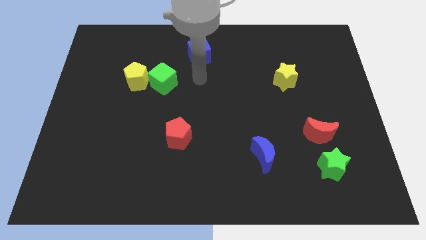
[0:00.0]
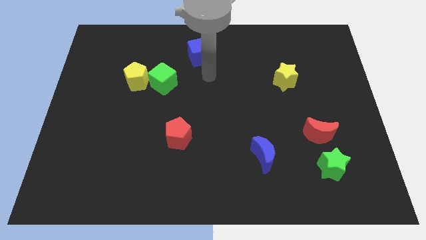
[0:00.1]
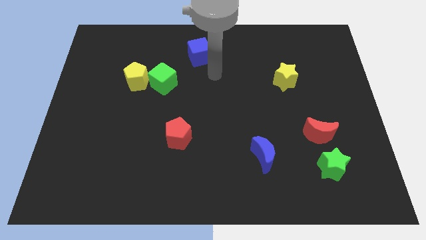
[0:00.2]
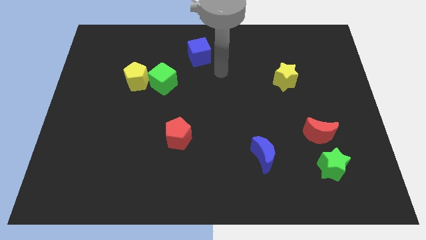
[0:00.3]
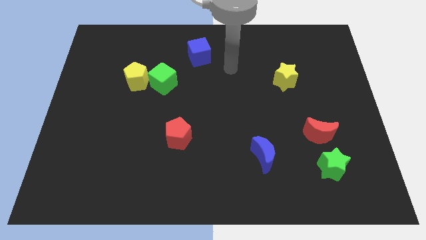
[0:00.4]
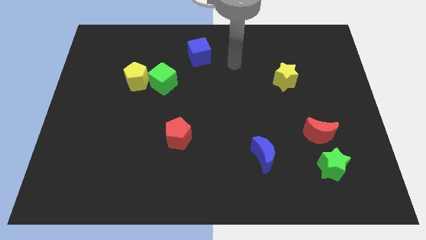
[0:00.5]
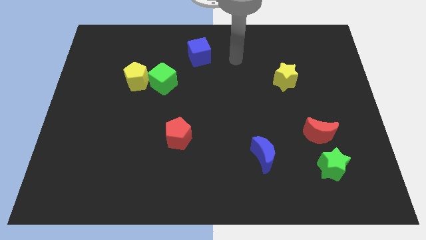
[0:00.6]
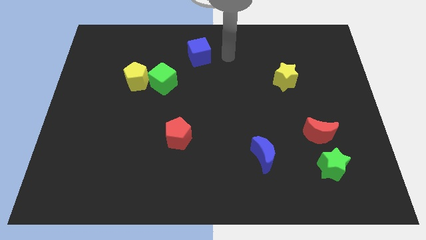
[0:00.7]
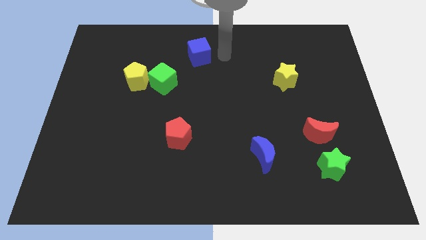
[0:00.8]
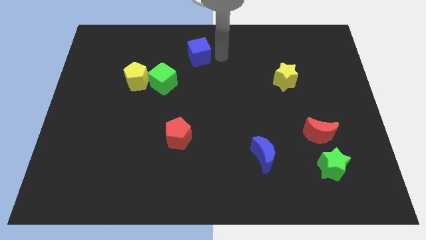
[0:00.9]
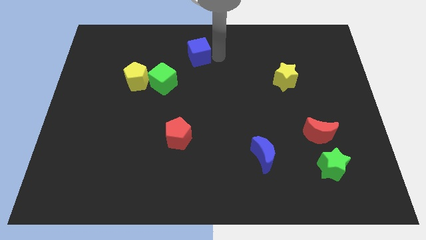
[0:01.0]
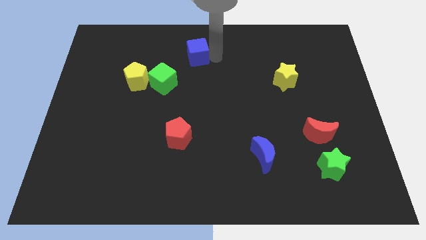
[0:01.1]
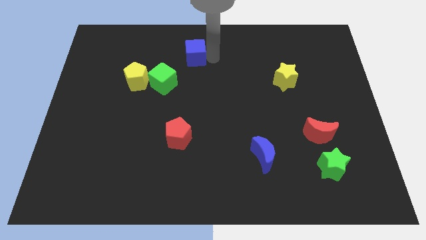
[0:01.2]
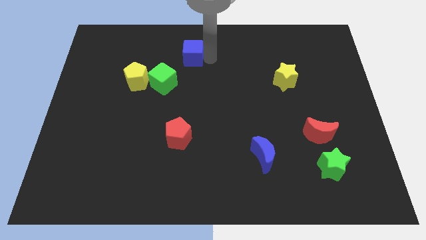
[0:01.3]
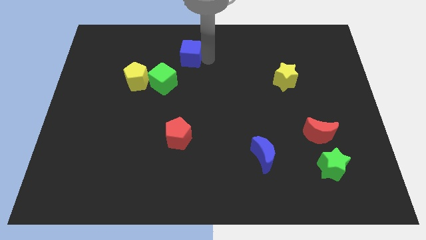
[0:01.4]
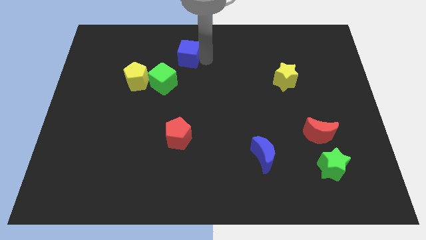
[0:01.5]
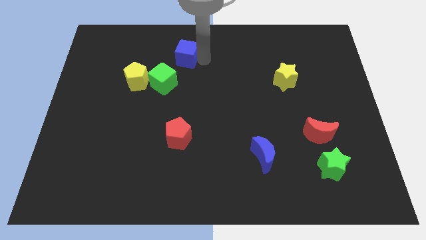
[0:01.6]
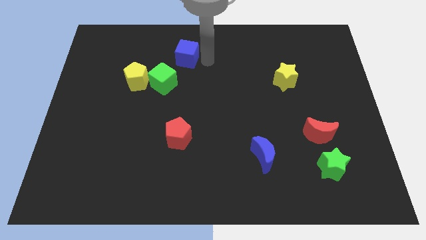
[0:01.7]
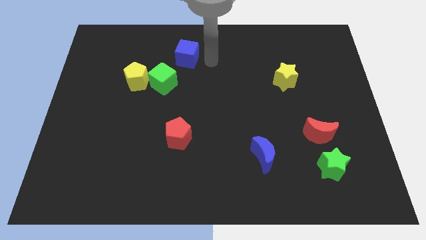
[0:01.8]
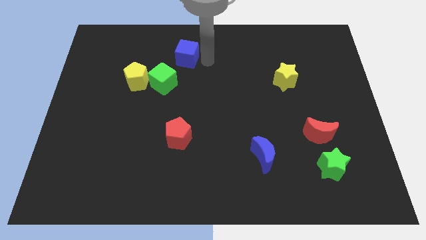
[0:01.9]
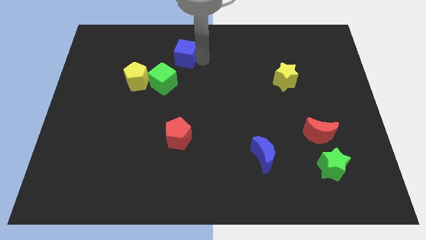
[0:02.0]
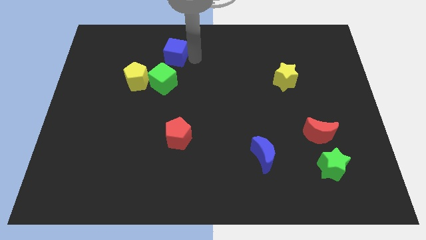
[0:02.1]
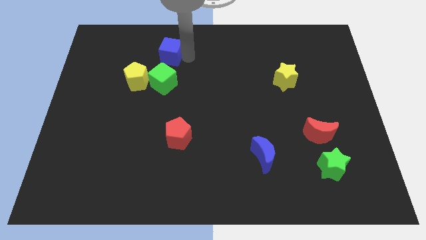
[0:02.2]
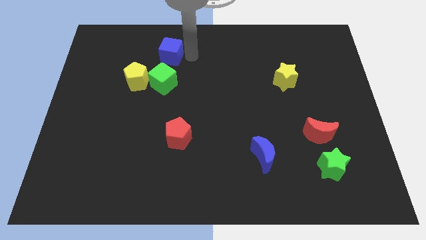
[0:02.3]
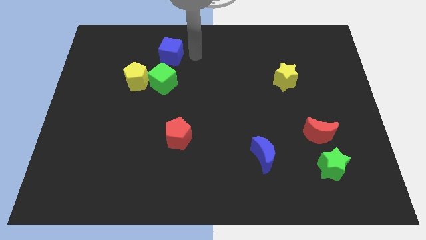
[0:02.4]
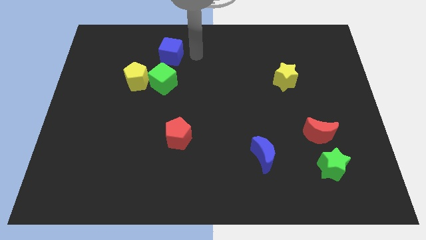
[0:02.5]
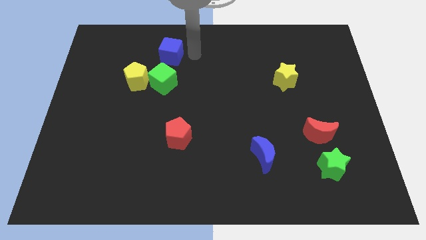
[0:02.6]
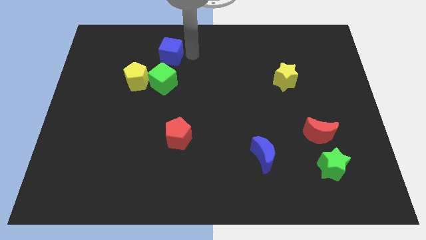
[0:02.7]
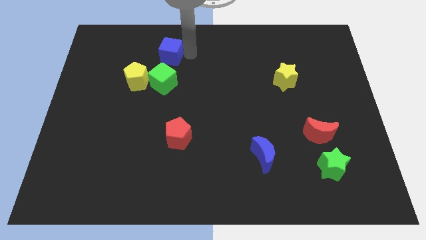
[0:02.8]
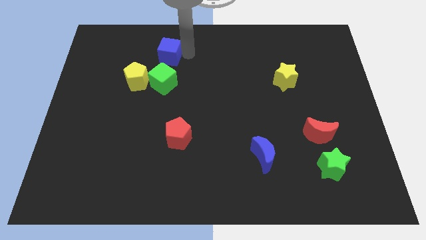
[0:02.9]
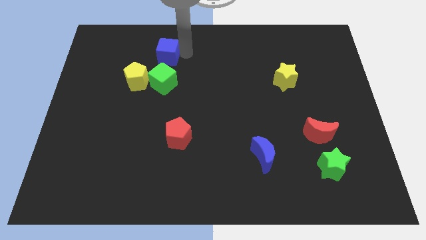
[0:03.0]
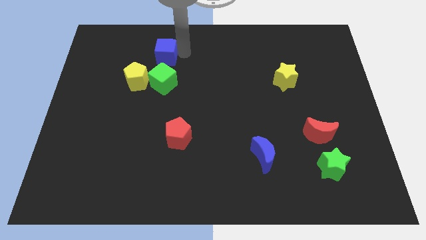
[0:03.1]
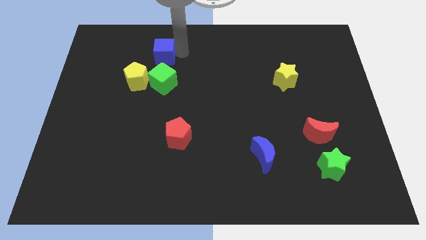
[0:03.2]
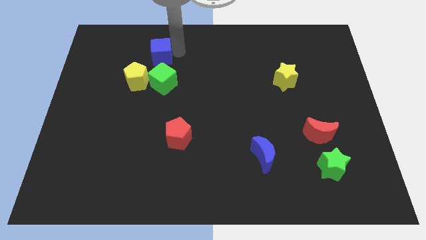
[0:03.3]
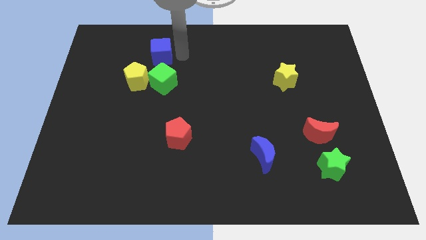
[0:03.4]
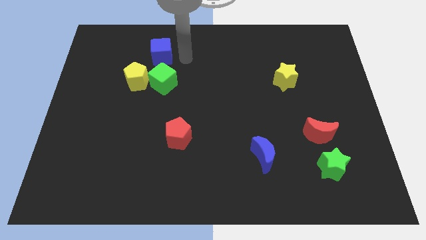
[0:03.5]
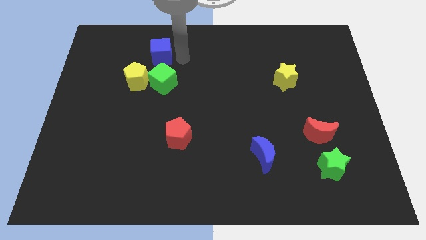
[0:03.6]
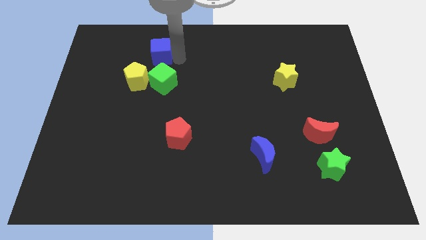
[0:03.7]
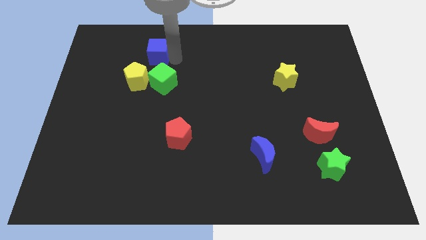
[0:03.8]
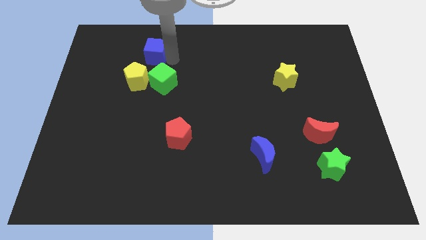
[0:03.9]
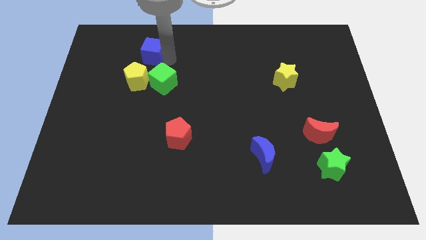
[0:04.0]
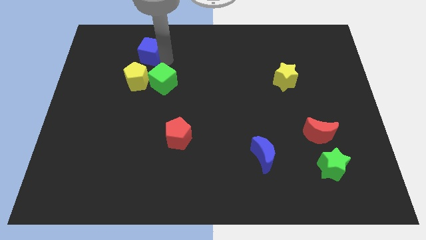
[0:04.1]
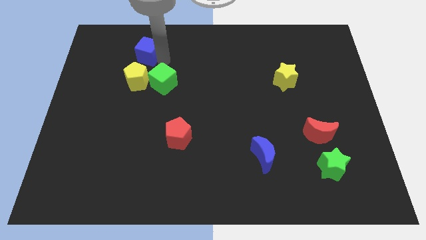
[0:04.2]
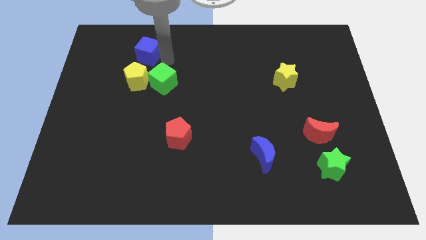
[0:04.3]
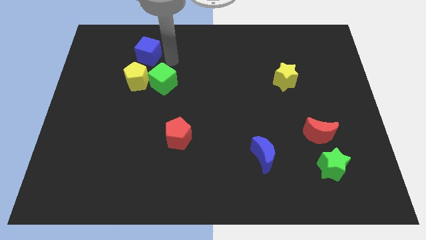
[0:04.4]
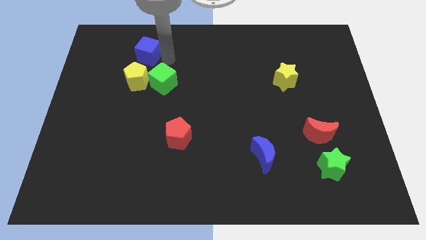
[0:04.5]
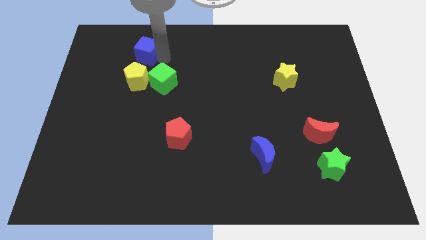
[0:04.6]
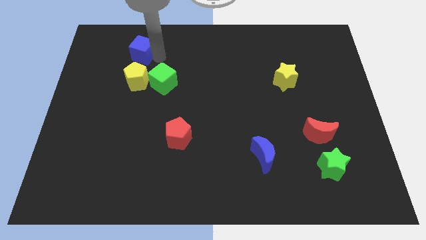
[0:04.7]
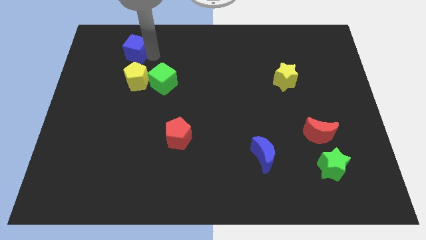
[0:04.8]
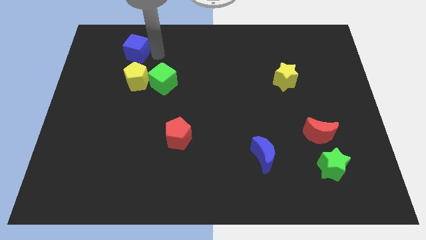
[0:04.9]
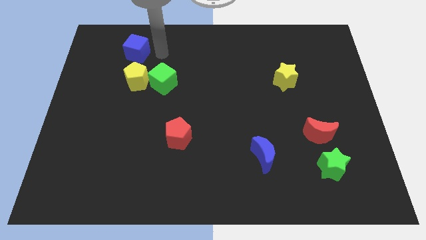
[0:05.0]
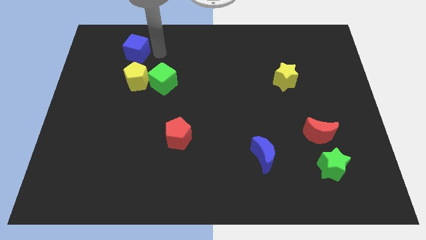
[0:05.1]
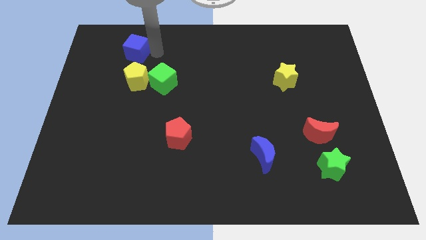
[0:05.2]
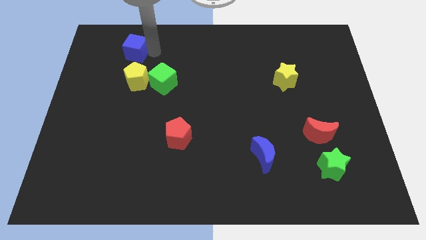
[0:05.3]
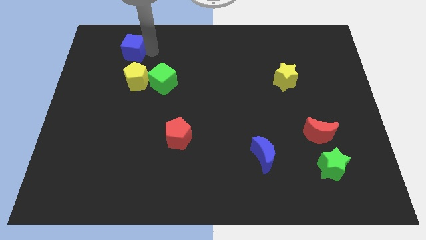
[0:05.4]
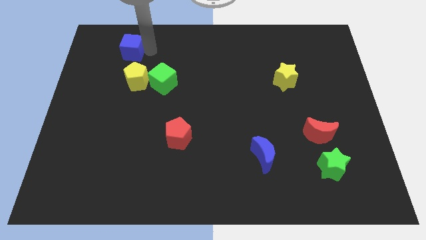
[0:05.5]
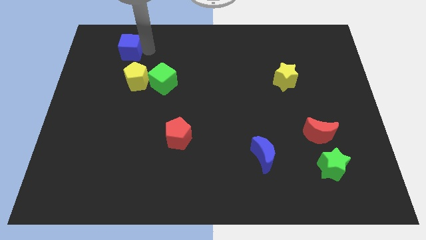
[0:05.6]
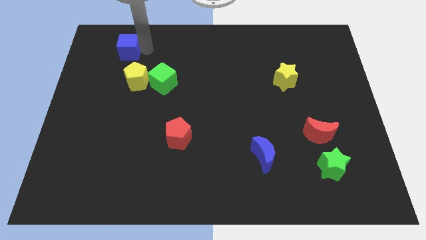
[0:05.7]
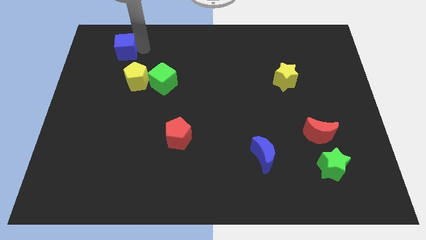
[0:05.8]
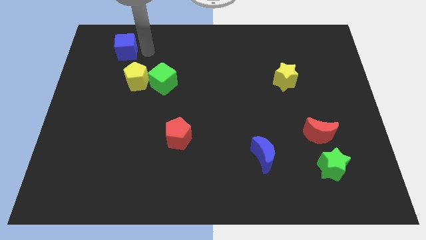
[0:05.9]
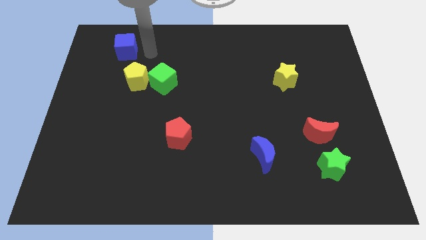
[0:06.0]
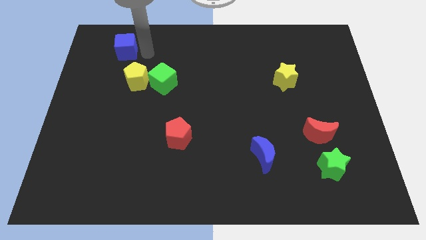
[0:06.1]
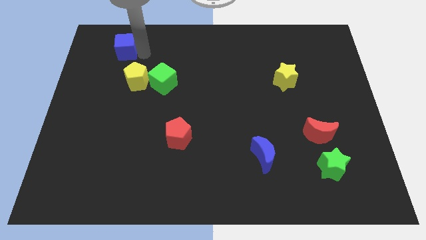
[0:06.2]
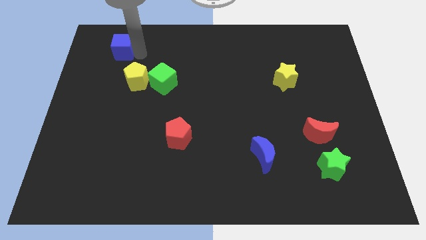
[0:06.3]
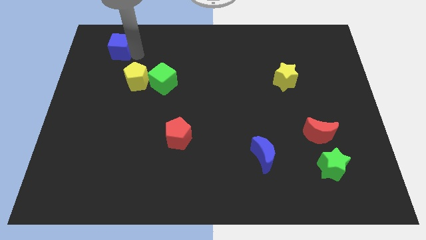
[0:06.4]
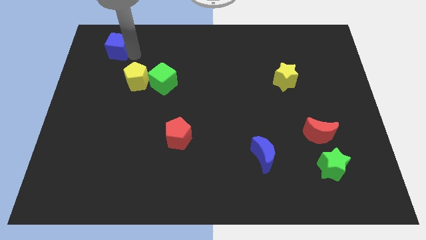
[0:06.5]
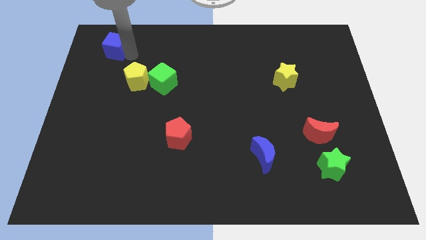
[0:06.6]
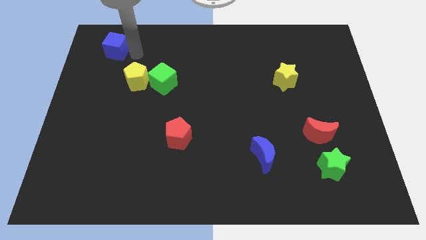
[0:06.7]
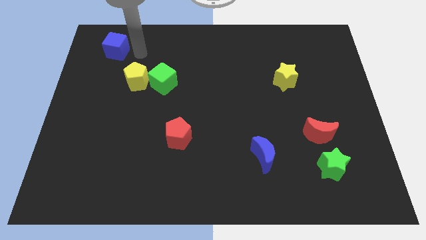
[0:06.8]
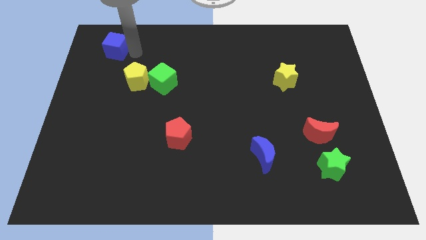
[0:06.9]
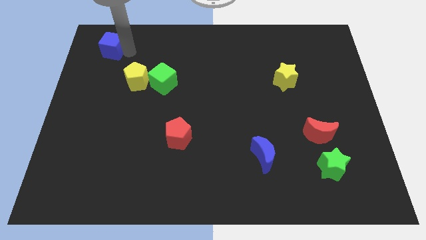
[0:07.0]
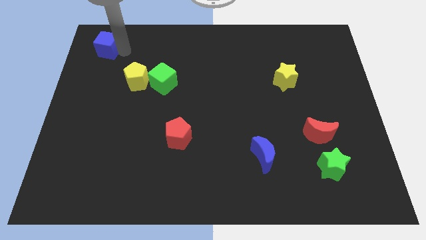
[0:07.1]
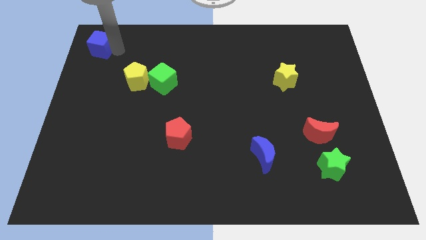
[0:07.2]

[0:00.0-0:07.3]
slide the blue cube to the upper left corner
